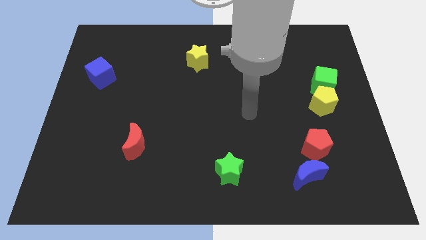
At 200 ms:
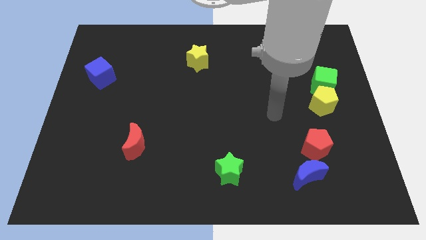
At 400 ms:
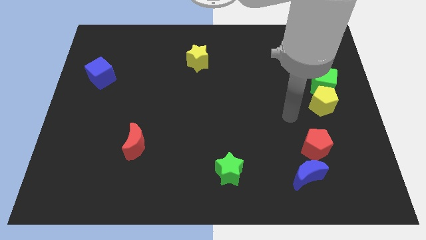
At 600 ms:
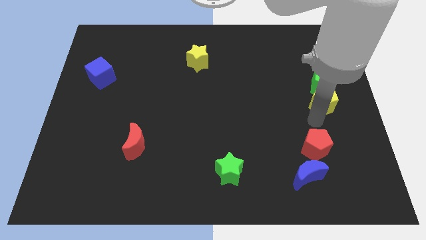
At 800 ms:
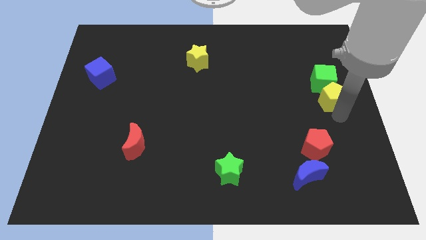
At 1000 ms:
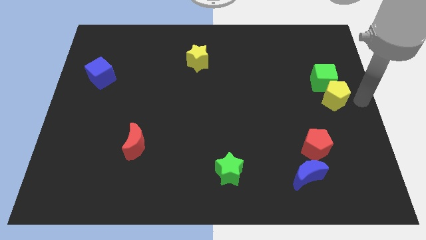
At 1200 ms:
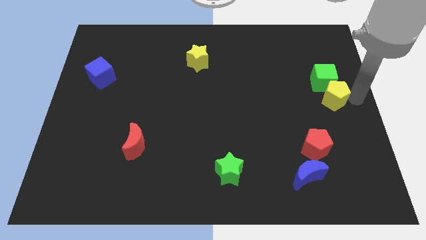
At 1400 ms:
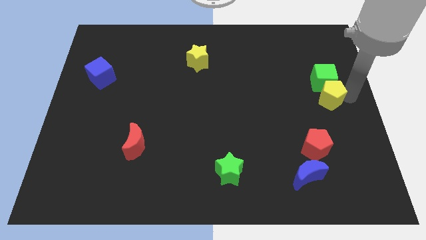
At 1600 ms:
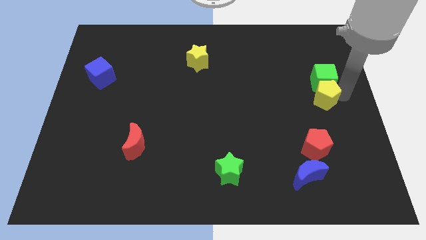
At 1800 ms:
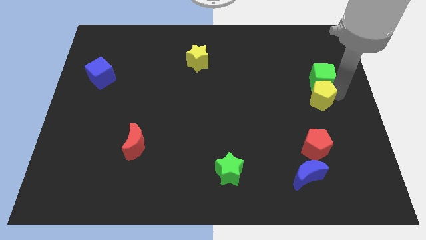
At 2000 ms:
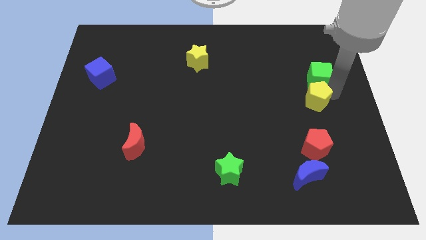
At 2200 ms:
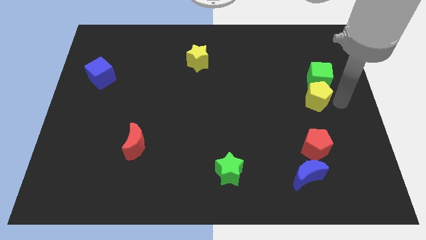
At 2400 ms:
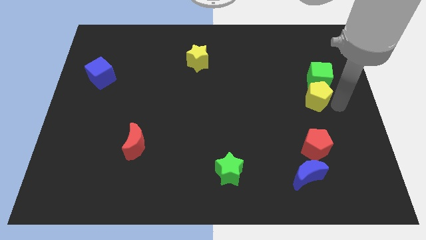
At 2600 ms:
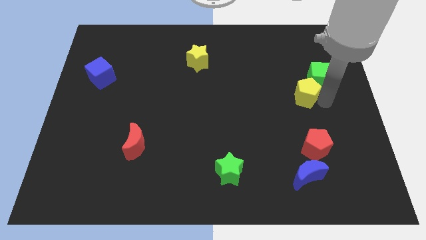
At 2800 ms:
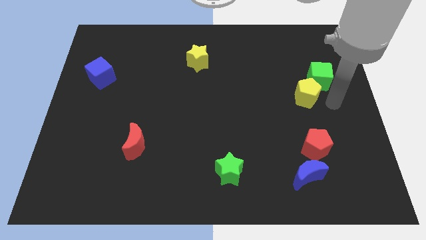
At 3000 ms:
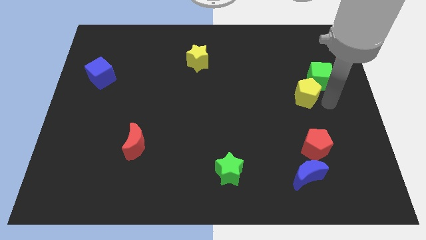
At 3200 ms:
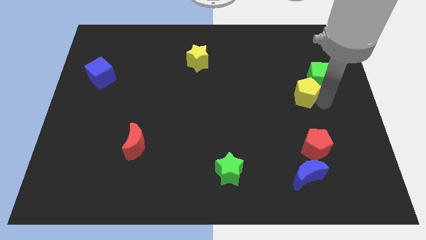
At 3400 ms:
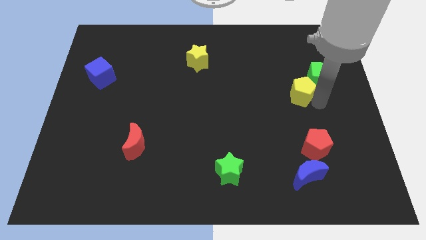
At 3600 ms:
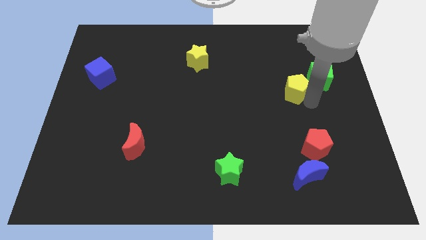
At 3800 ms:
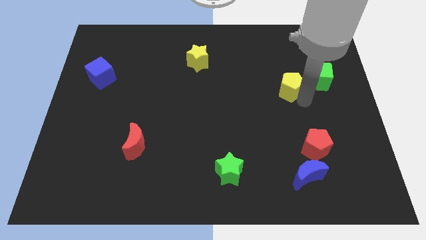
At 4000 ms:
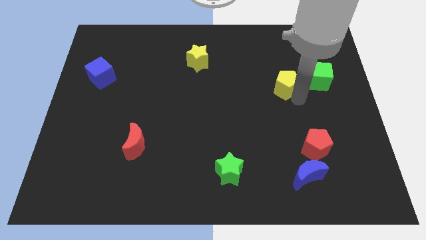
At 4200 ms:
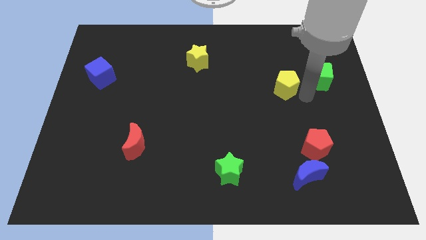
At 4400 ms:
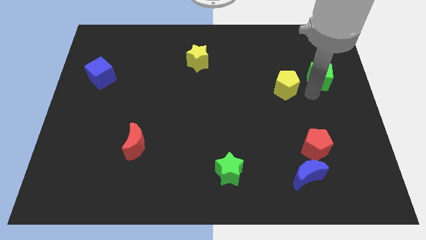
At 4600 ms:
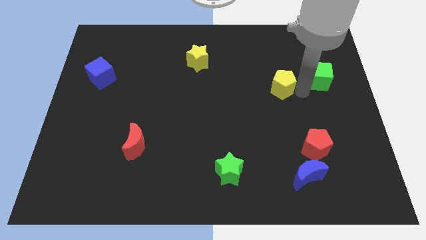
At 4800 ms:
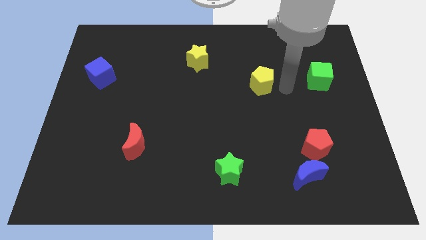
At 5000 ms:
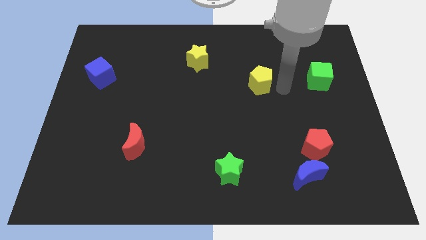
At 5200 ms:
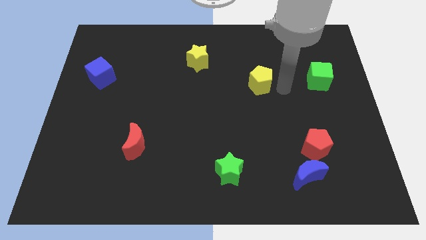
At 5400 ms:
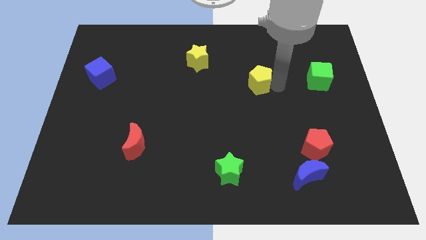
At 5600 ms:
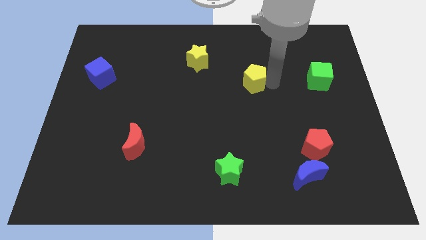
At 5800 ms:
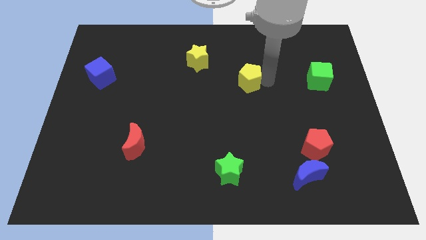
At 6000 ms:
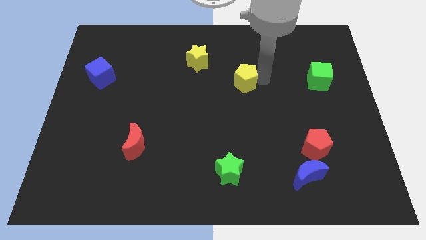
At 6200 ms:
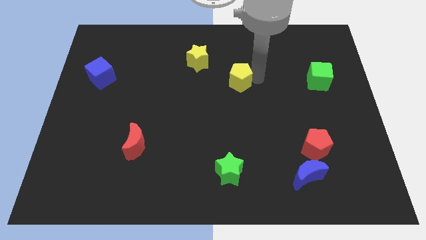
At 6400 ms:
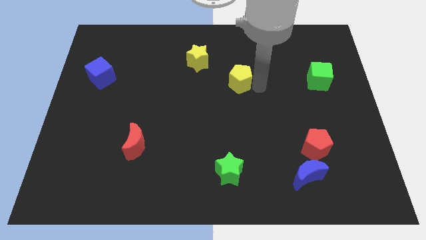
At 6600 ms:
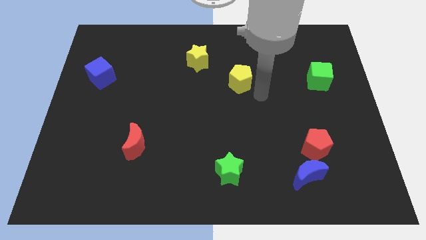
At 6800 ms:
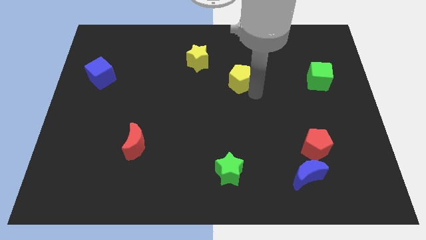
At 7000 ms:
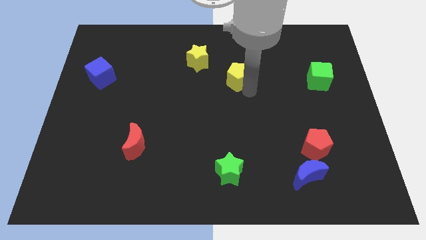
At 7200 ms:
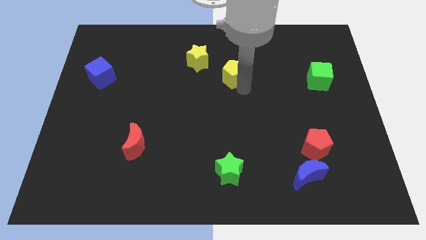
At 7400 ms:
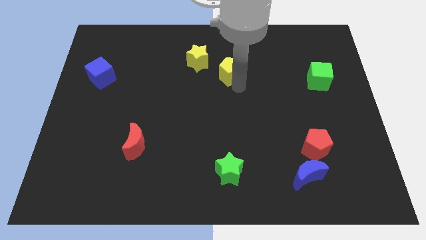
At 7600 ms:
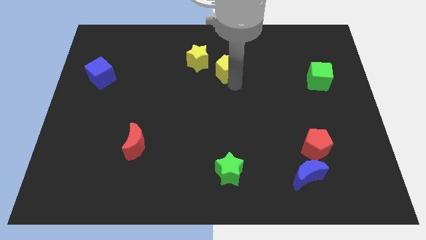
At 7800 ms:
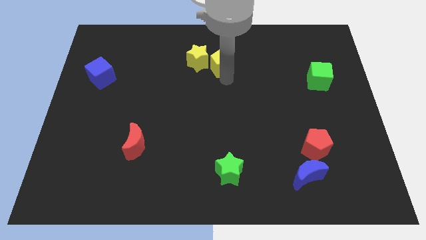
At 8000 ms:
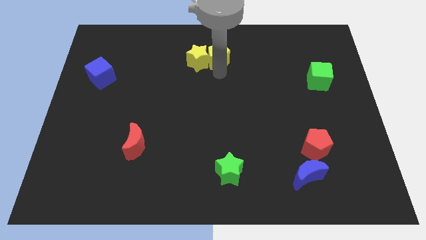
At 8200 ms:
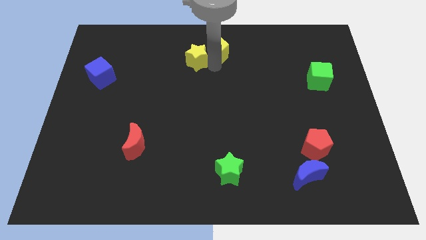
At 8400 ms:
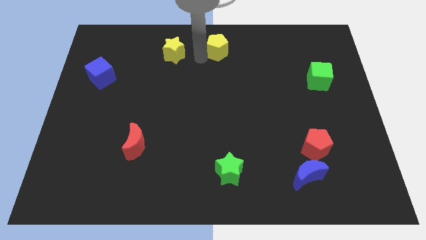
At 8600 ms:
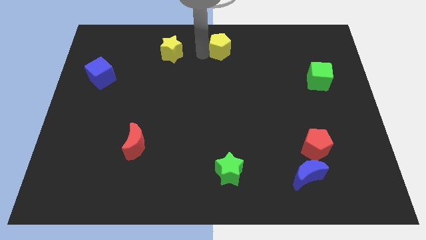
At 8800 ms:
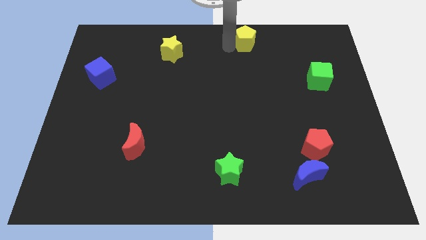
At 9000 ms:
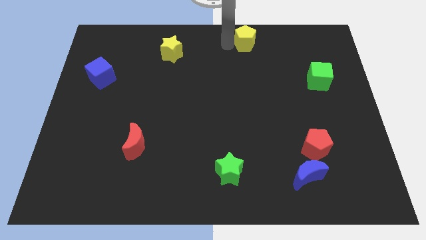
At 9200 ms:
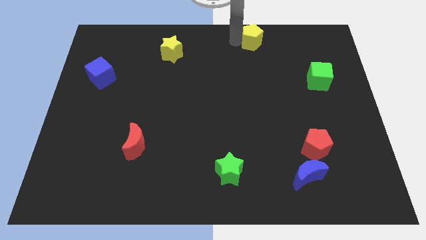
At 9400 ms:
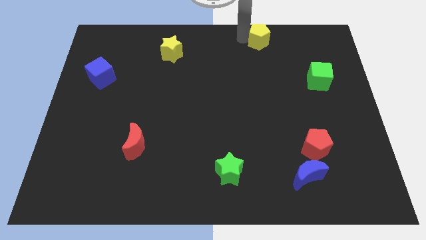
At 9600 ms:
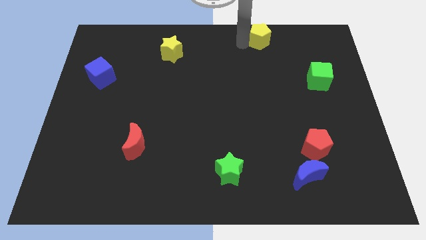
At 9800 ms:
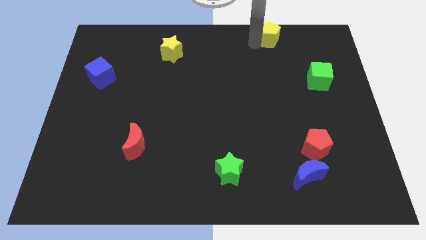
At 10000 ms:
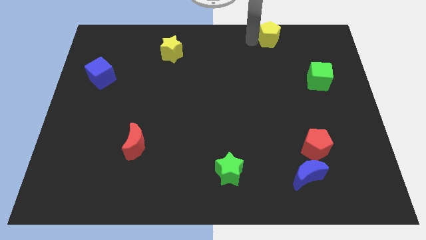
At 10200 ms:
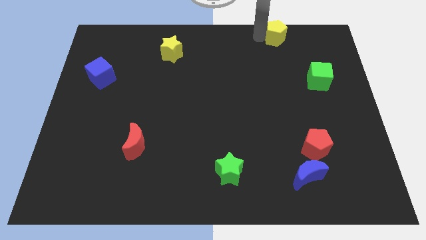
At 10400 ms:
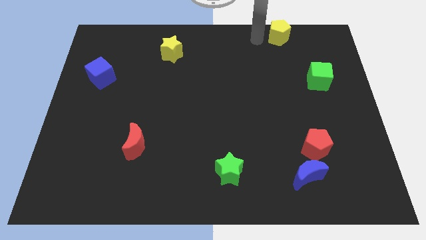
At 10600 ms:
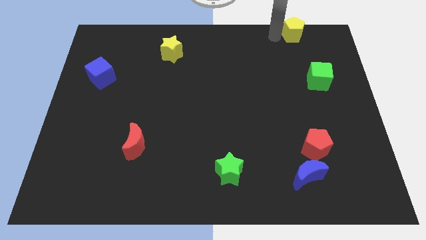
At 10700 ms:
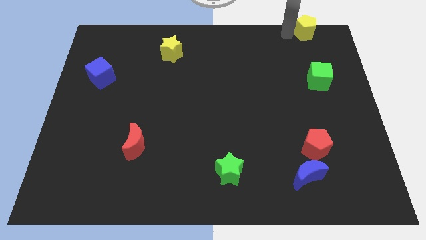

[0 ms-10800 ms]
push the yellow pentagon to the upper right corner

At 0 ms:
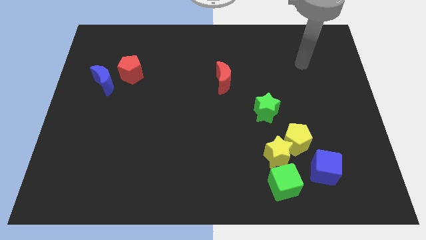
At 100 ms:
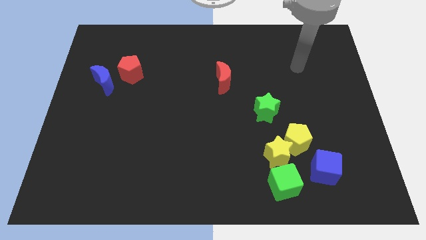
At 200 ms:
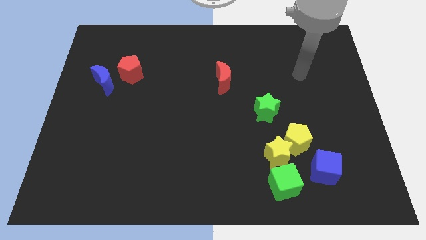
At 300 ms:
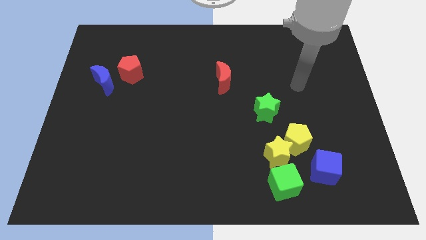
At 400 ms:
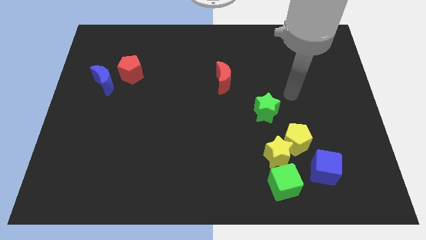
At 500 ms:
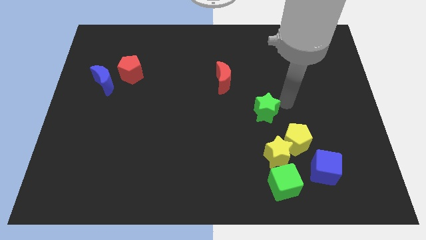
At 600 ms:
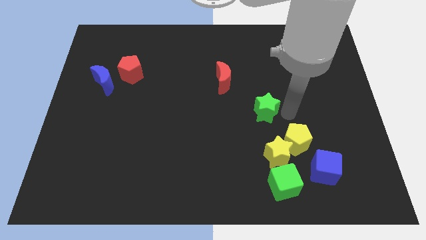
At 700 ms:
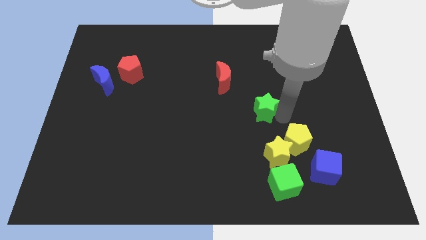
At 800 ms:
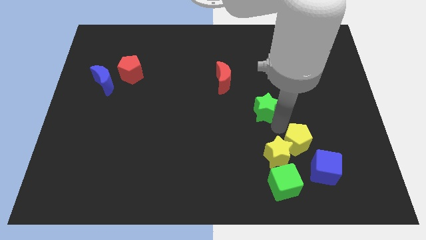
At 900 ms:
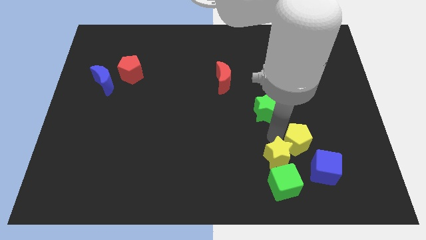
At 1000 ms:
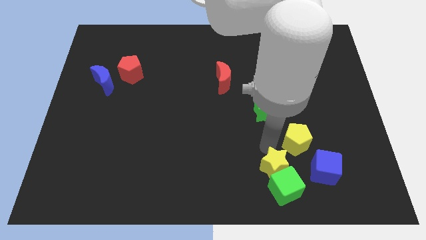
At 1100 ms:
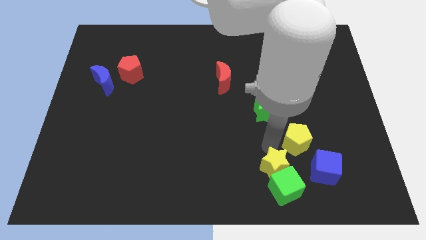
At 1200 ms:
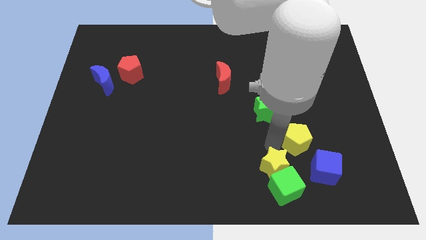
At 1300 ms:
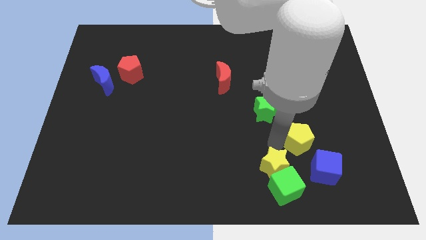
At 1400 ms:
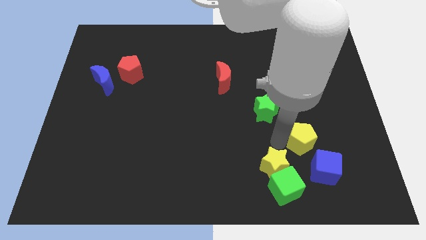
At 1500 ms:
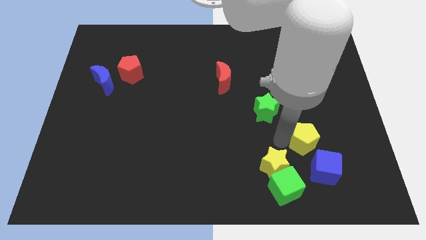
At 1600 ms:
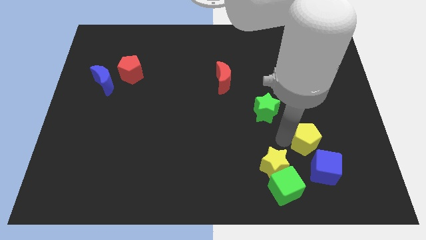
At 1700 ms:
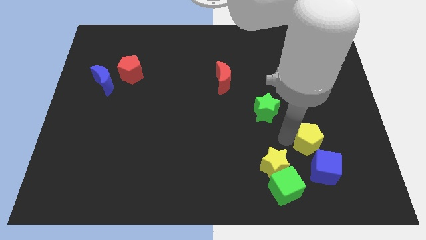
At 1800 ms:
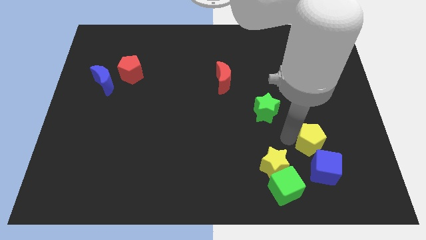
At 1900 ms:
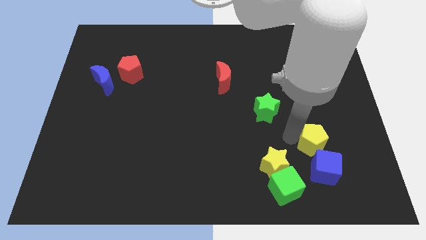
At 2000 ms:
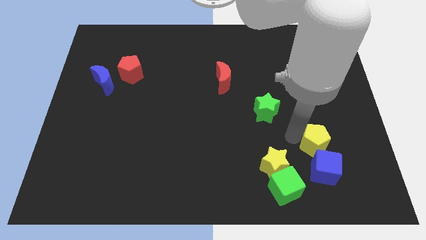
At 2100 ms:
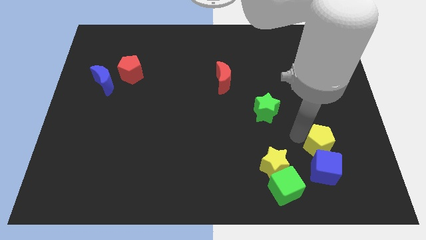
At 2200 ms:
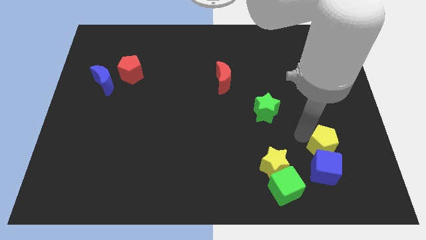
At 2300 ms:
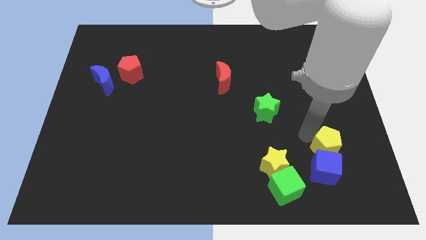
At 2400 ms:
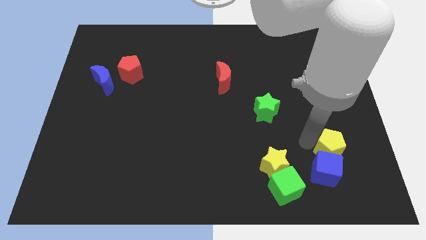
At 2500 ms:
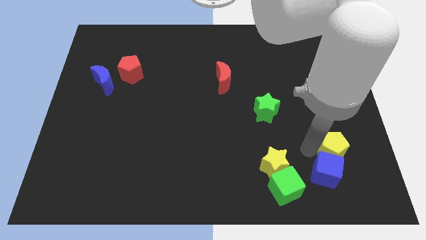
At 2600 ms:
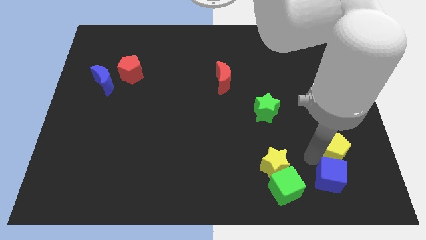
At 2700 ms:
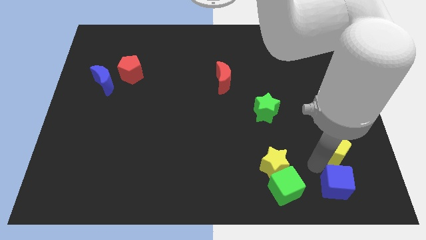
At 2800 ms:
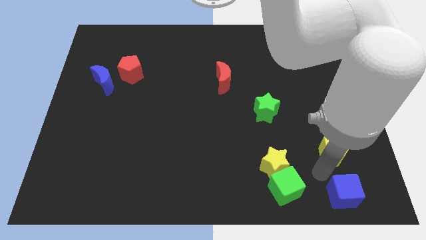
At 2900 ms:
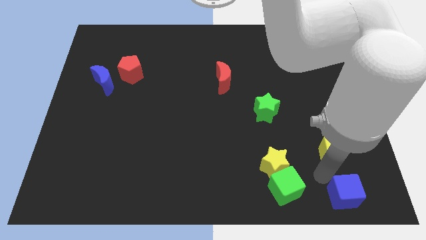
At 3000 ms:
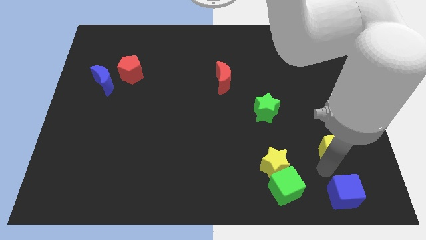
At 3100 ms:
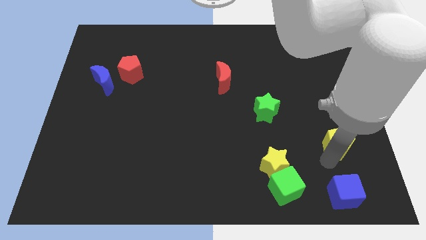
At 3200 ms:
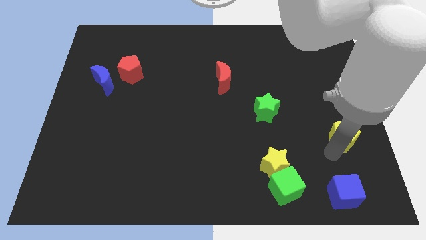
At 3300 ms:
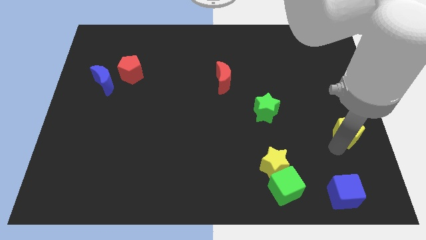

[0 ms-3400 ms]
move the yellow pentagon to the right side
